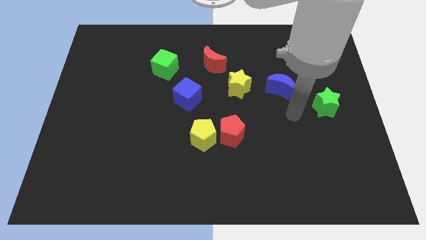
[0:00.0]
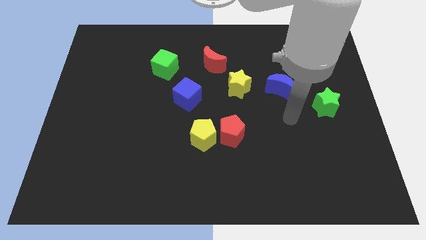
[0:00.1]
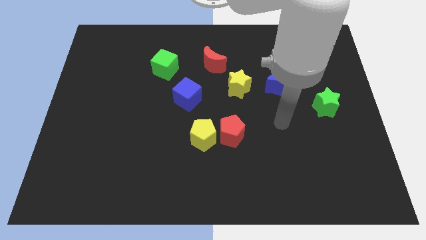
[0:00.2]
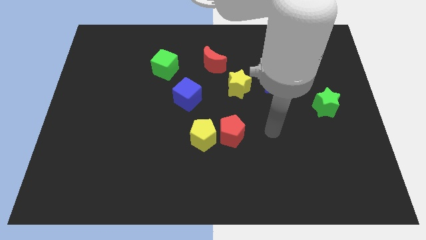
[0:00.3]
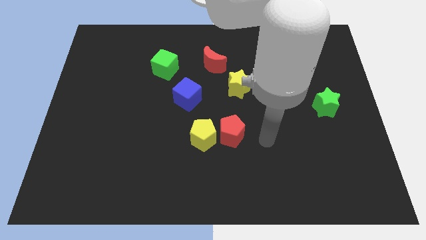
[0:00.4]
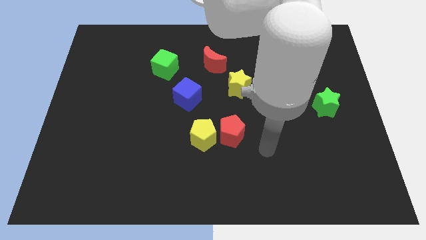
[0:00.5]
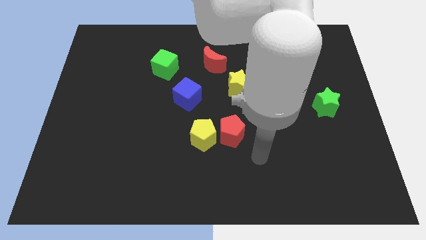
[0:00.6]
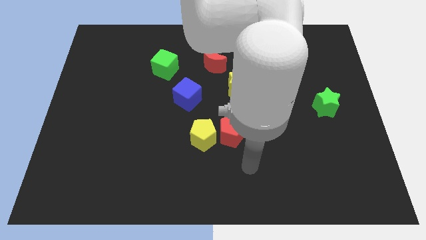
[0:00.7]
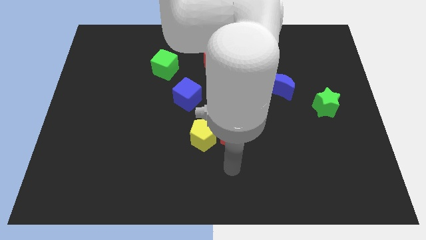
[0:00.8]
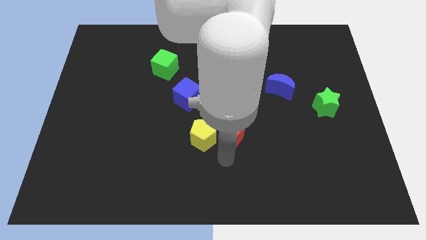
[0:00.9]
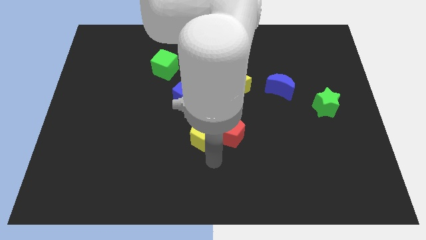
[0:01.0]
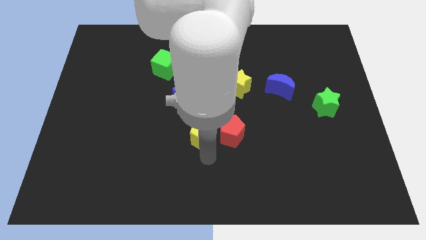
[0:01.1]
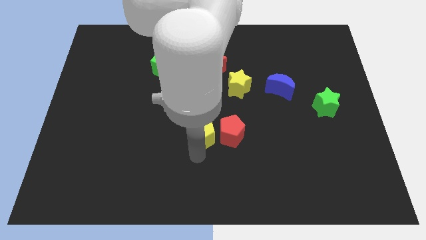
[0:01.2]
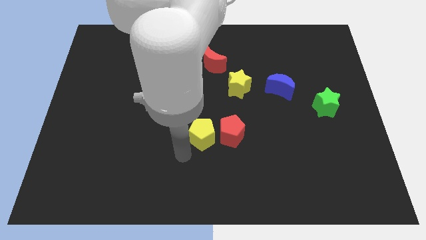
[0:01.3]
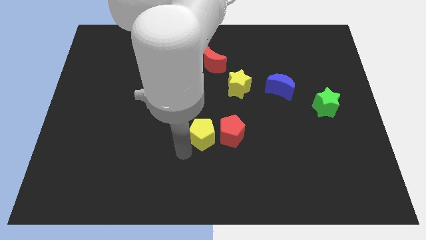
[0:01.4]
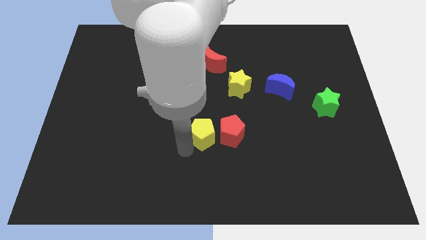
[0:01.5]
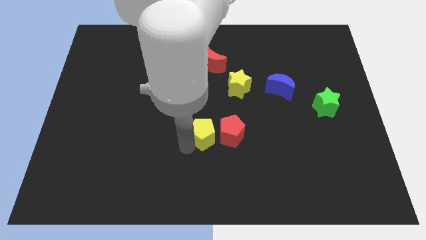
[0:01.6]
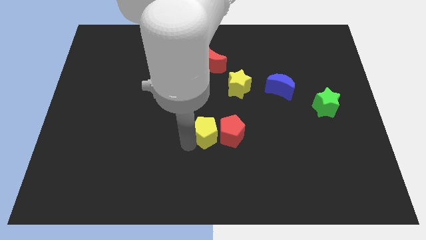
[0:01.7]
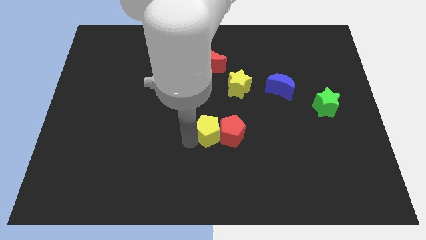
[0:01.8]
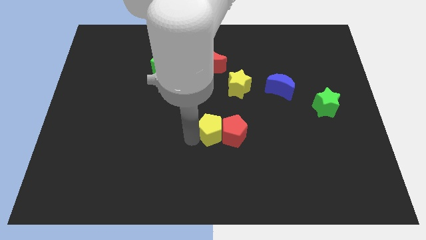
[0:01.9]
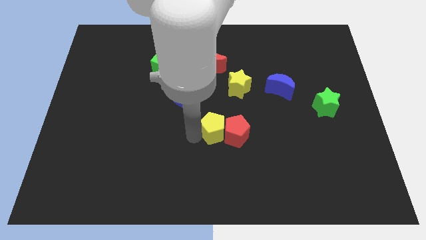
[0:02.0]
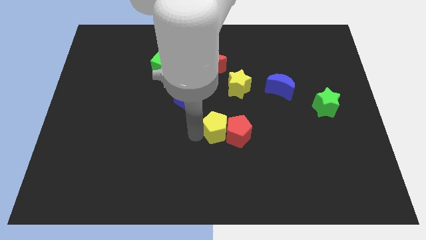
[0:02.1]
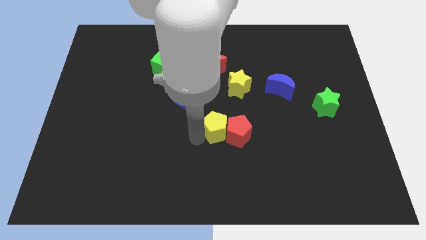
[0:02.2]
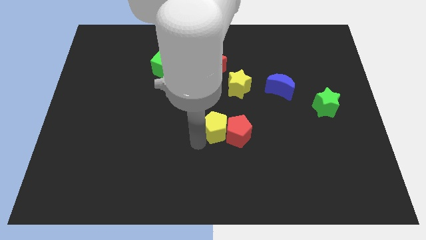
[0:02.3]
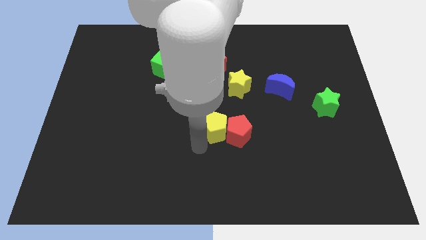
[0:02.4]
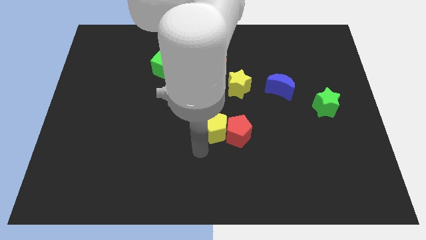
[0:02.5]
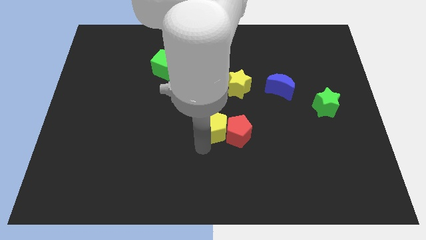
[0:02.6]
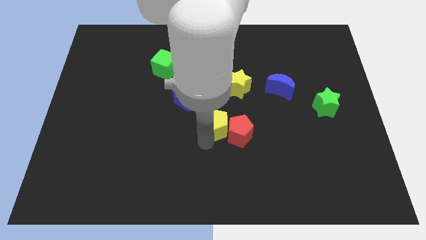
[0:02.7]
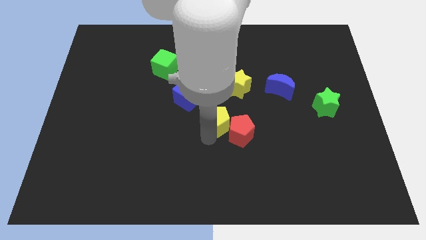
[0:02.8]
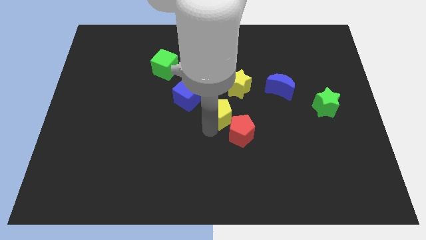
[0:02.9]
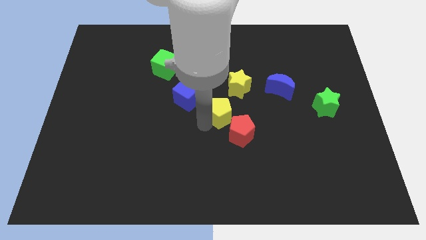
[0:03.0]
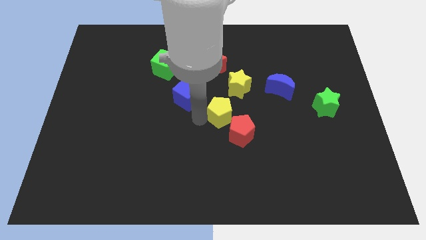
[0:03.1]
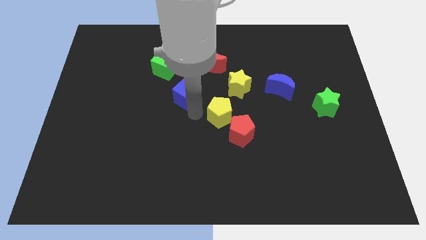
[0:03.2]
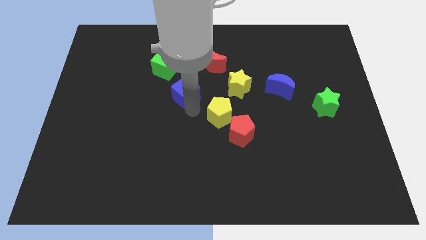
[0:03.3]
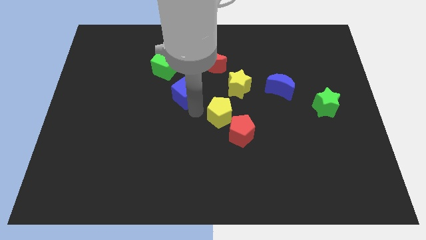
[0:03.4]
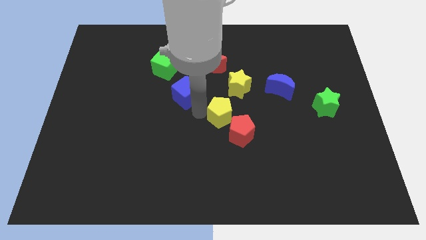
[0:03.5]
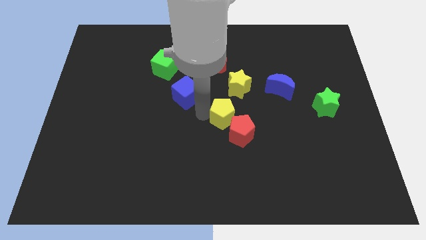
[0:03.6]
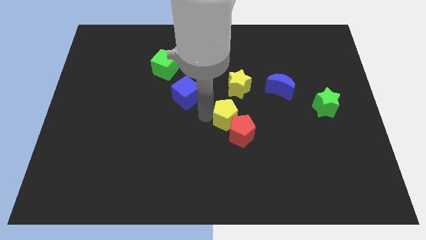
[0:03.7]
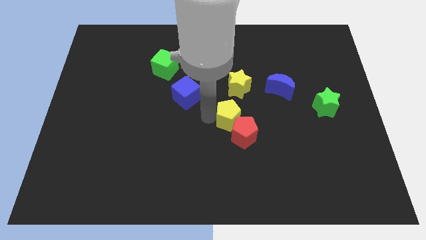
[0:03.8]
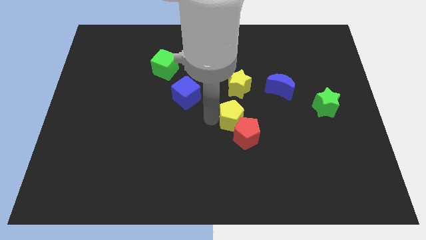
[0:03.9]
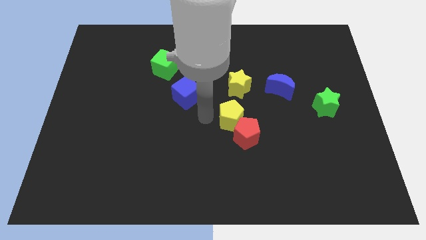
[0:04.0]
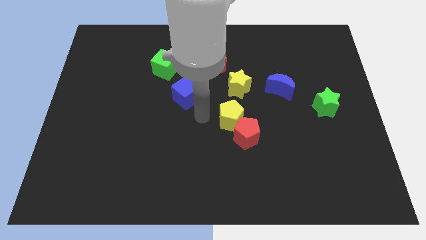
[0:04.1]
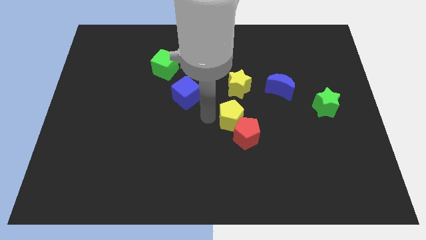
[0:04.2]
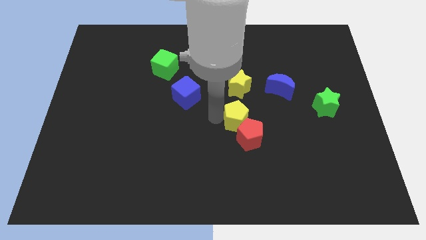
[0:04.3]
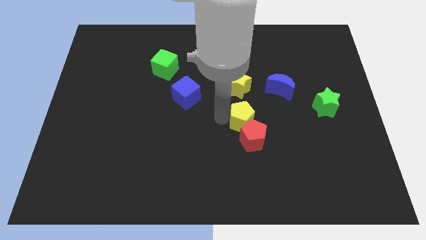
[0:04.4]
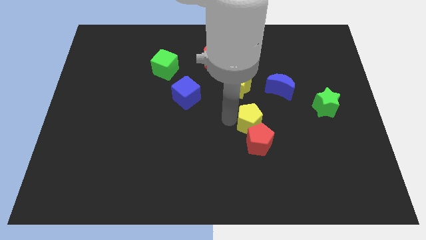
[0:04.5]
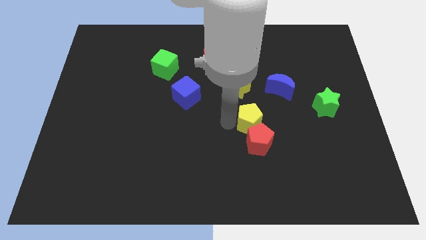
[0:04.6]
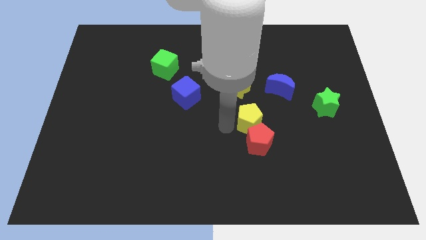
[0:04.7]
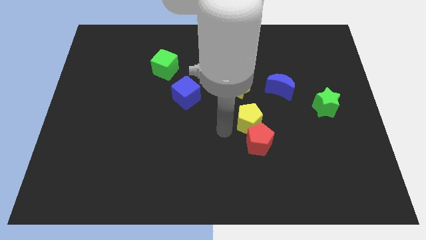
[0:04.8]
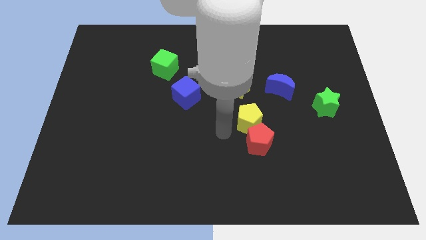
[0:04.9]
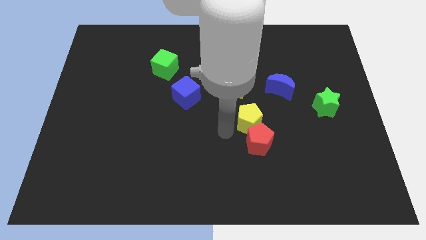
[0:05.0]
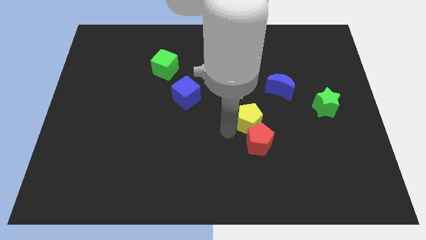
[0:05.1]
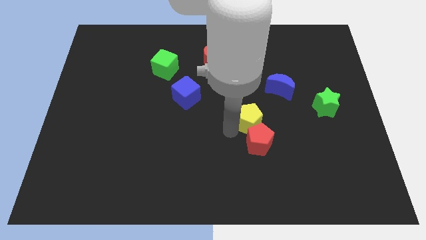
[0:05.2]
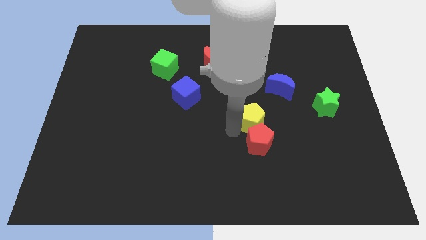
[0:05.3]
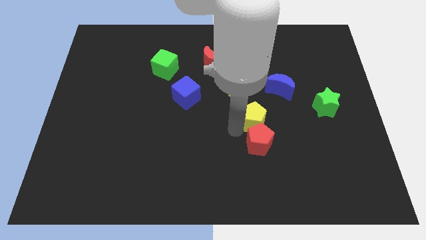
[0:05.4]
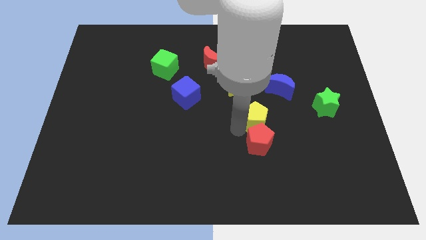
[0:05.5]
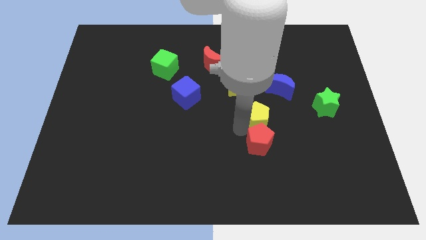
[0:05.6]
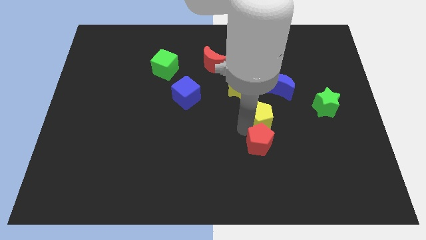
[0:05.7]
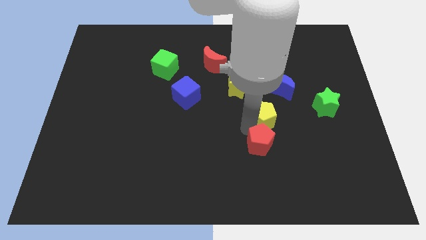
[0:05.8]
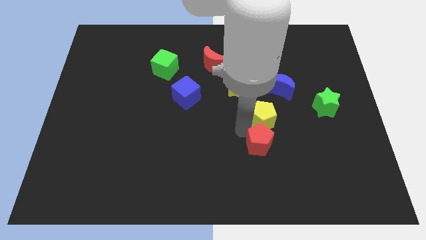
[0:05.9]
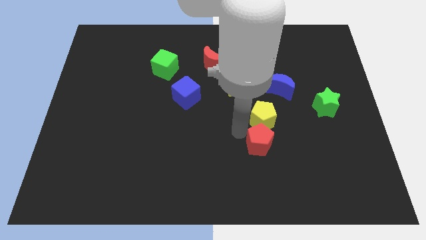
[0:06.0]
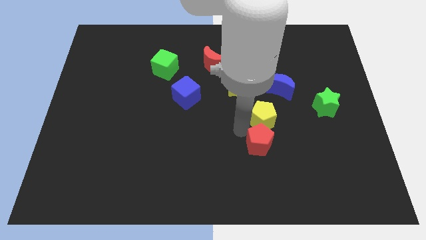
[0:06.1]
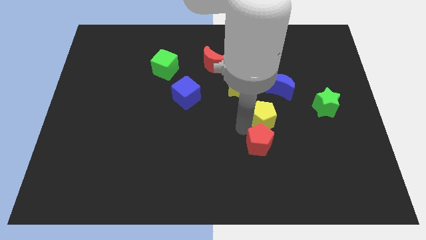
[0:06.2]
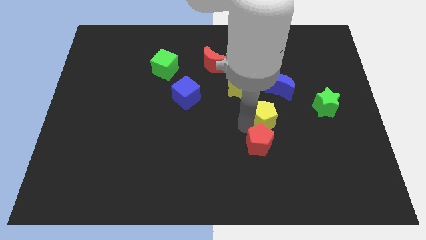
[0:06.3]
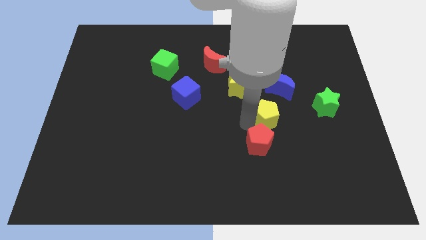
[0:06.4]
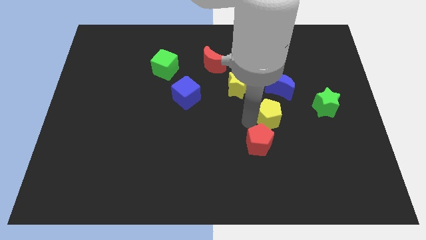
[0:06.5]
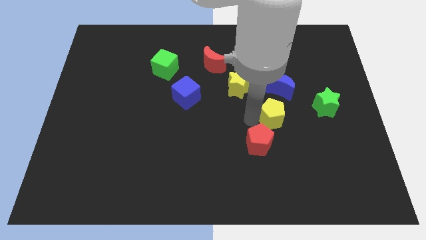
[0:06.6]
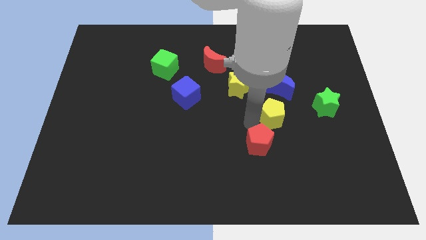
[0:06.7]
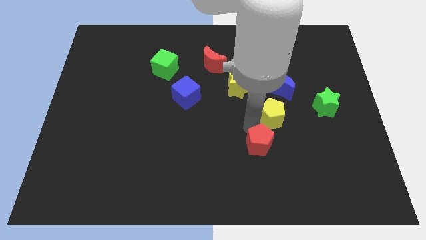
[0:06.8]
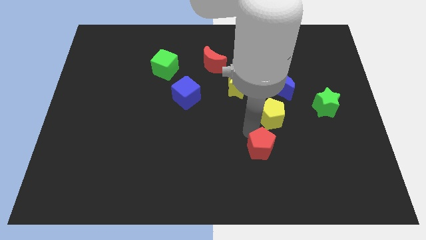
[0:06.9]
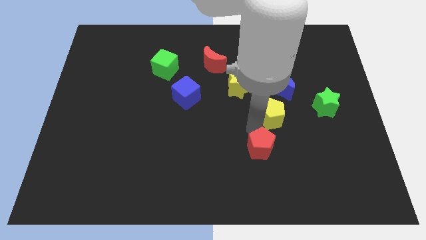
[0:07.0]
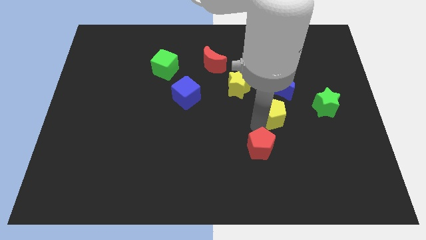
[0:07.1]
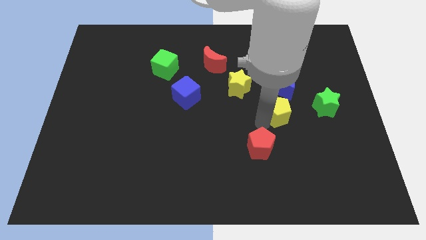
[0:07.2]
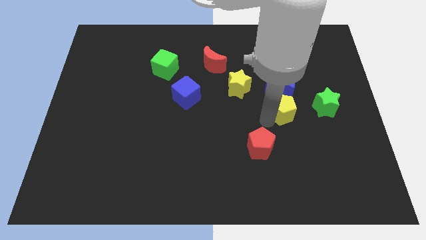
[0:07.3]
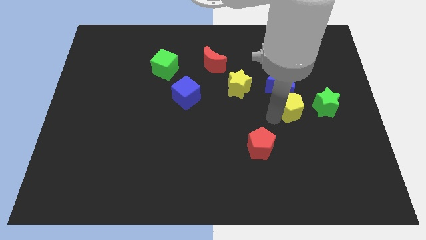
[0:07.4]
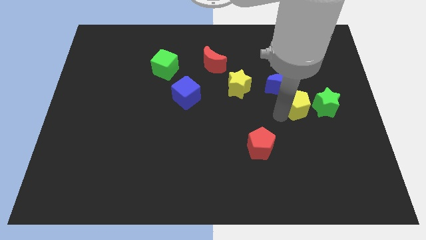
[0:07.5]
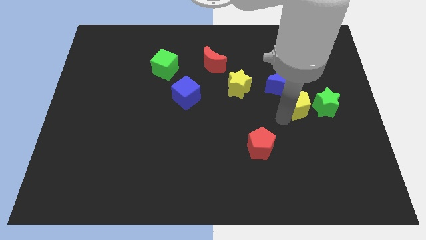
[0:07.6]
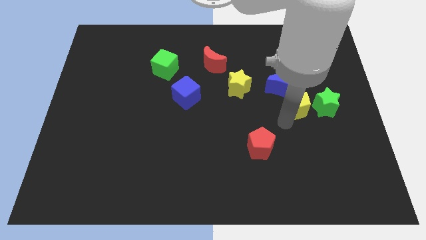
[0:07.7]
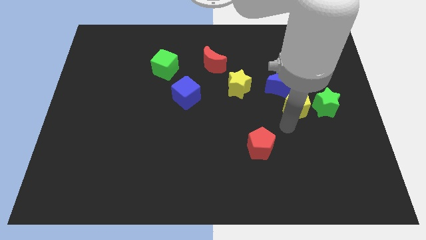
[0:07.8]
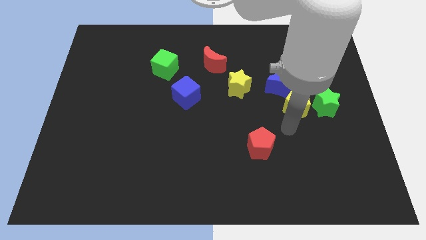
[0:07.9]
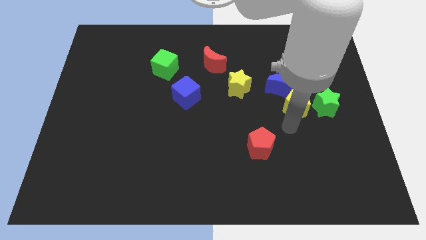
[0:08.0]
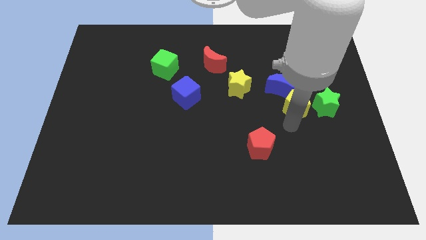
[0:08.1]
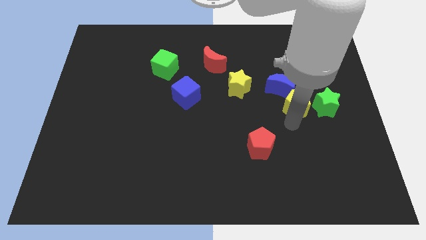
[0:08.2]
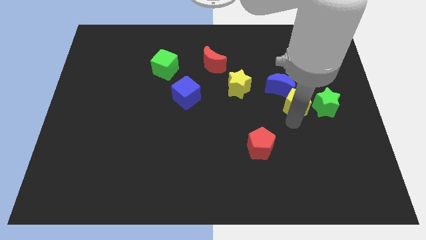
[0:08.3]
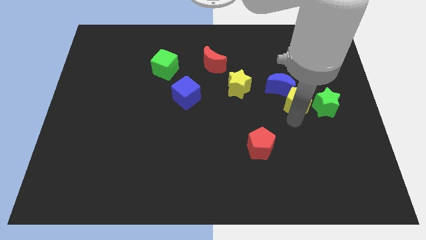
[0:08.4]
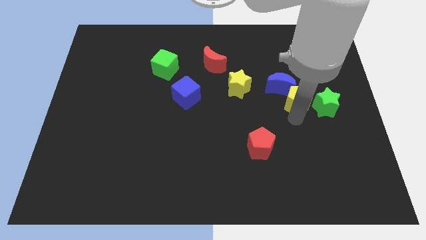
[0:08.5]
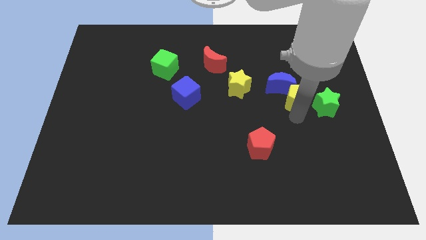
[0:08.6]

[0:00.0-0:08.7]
put the yellow pentagon to the right of the yellow star
